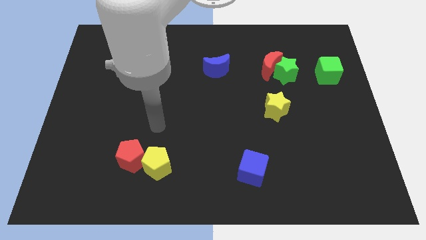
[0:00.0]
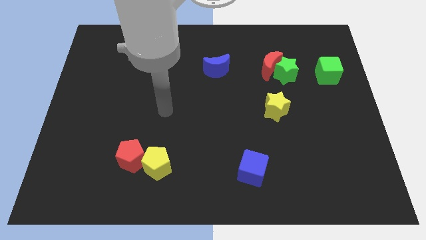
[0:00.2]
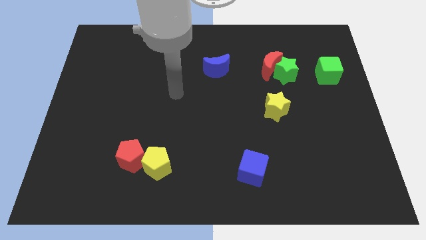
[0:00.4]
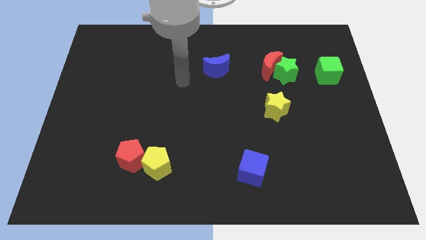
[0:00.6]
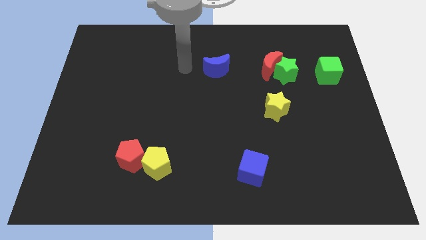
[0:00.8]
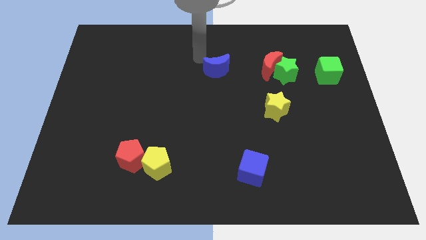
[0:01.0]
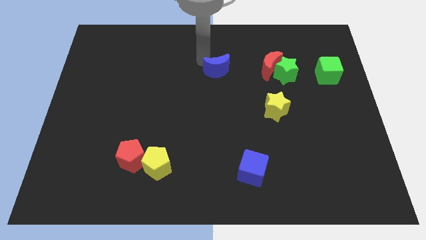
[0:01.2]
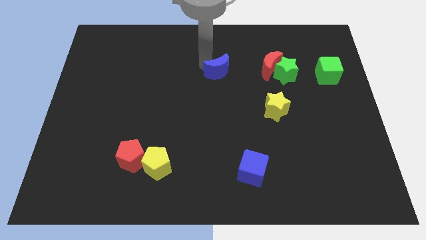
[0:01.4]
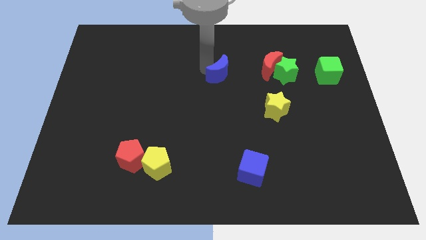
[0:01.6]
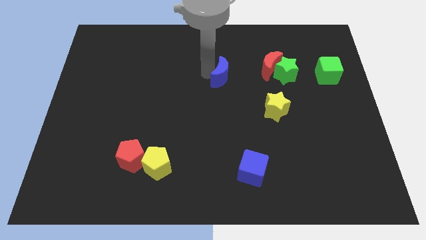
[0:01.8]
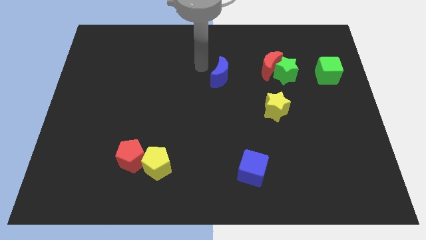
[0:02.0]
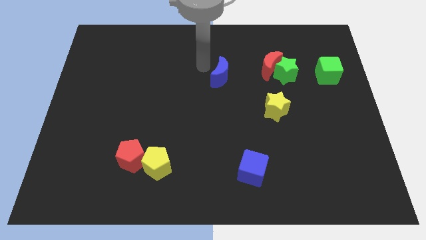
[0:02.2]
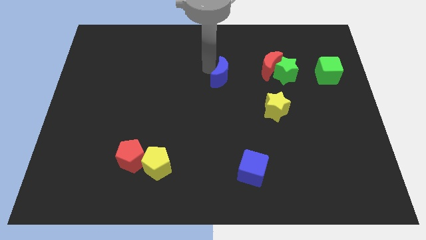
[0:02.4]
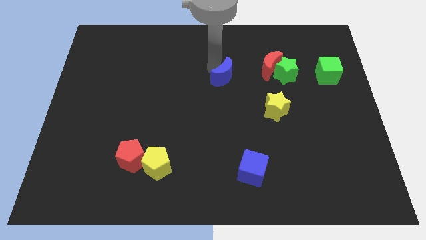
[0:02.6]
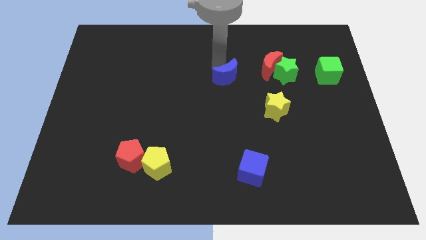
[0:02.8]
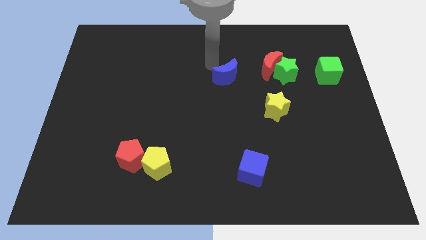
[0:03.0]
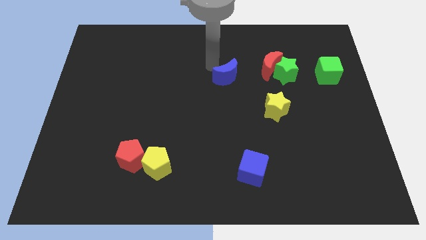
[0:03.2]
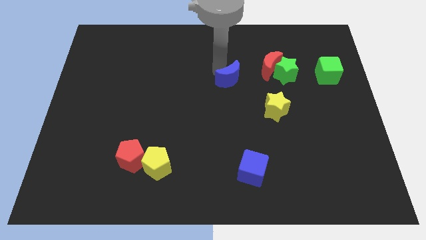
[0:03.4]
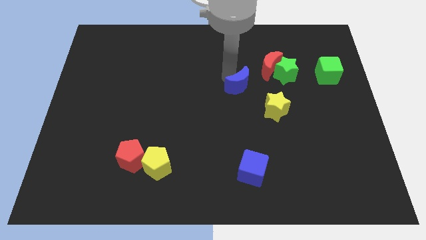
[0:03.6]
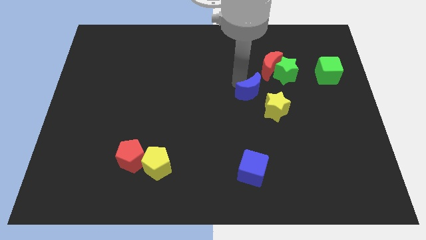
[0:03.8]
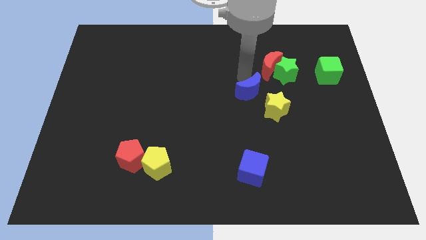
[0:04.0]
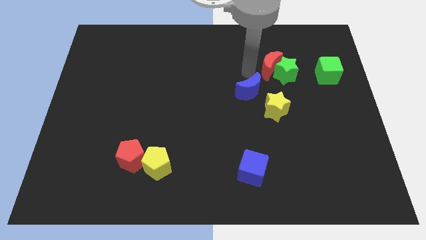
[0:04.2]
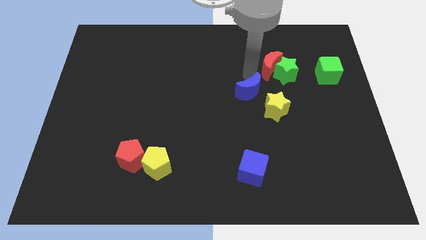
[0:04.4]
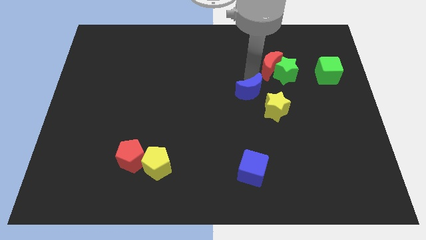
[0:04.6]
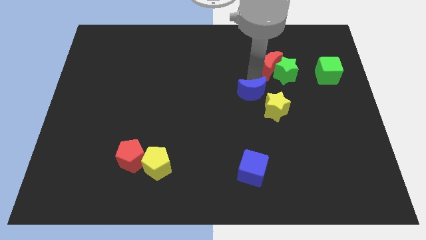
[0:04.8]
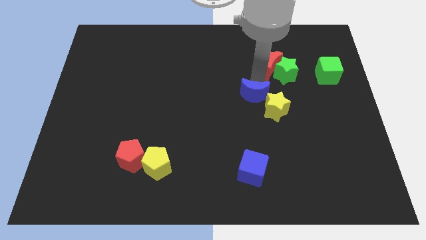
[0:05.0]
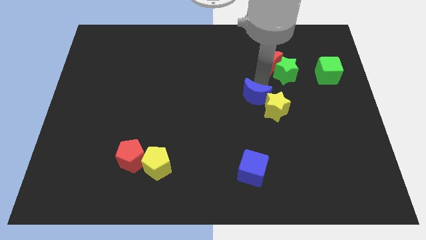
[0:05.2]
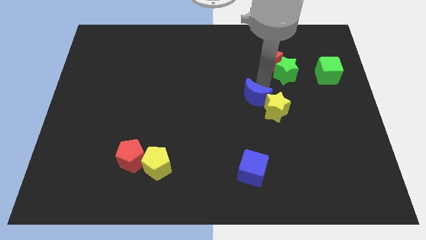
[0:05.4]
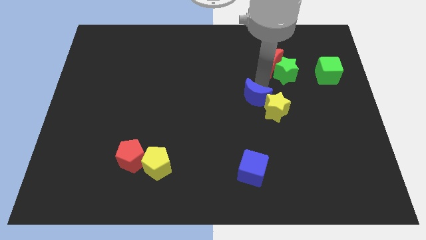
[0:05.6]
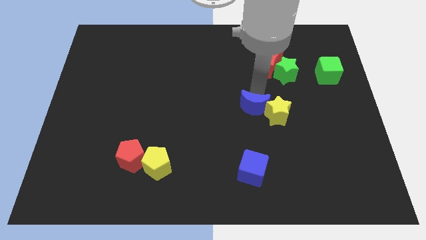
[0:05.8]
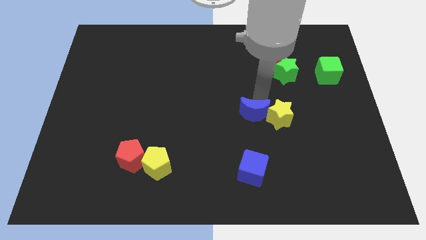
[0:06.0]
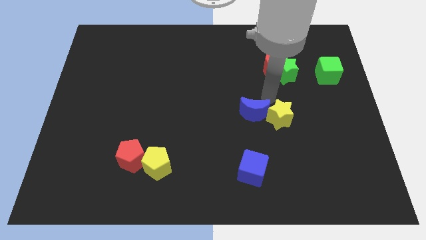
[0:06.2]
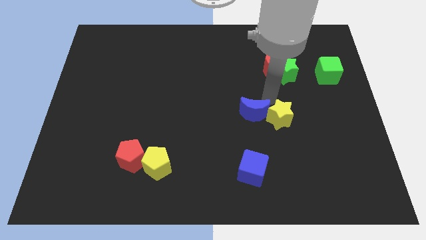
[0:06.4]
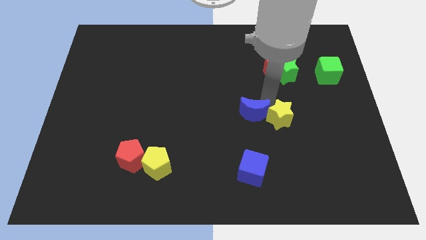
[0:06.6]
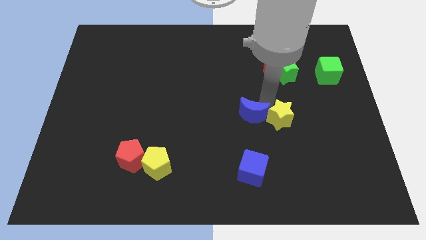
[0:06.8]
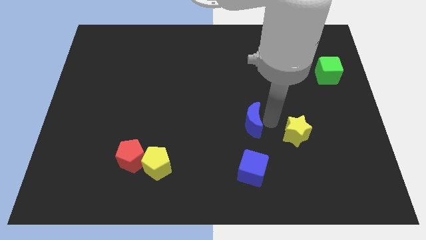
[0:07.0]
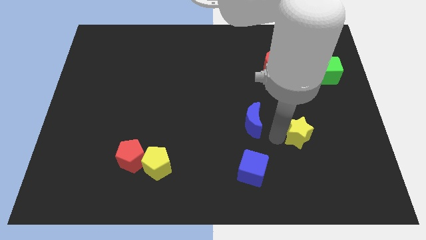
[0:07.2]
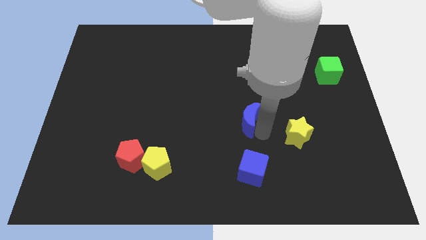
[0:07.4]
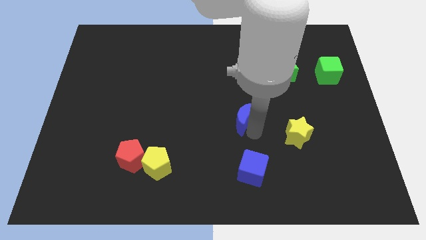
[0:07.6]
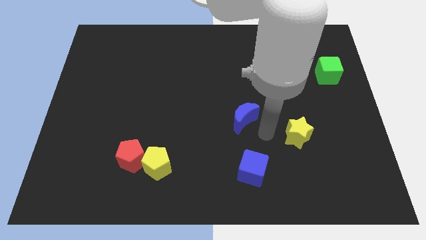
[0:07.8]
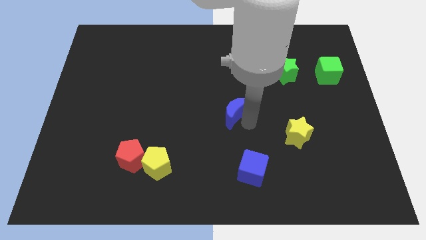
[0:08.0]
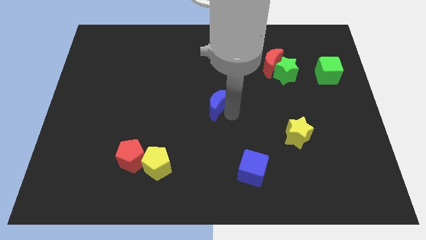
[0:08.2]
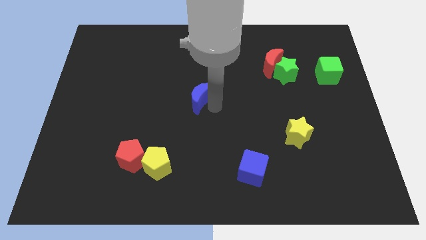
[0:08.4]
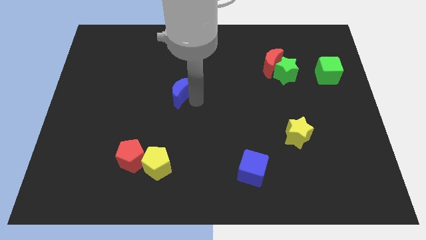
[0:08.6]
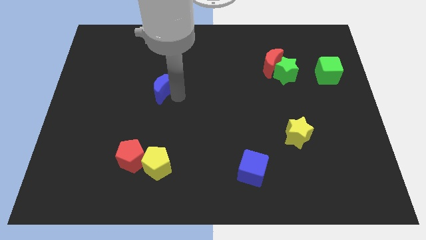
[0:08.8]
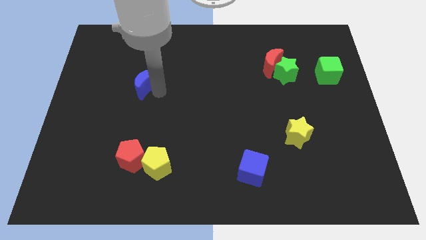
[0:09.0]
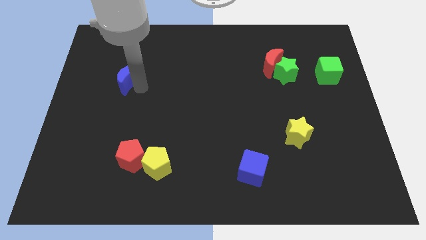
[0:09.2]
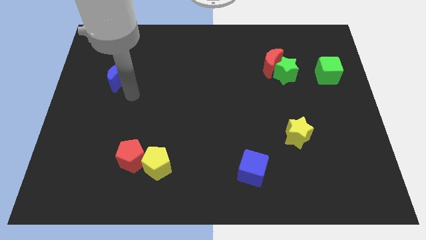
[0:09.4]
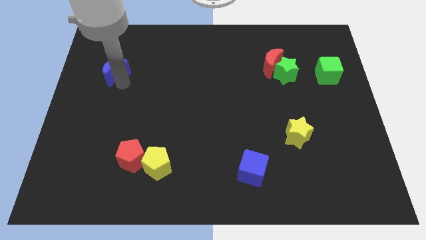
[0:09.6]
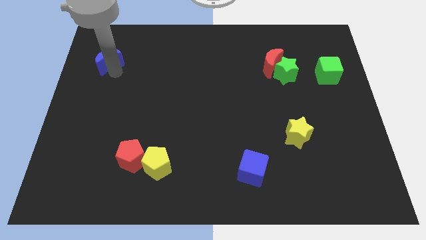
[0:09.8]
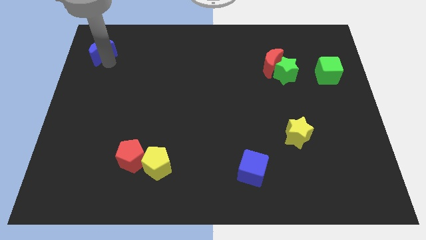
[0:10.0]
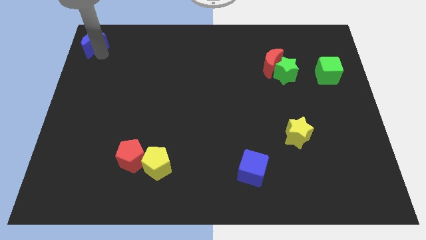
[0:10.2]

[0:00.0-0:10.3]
put the blue moon to the top left corner

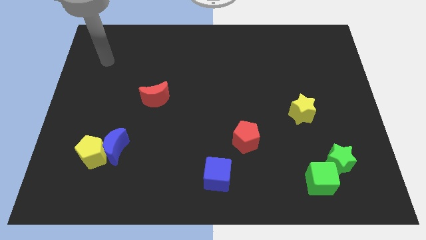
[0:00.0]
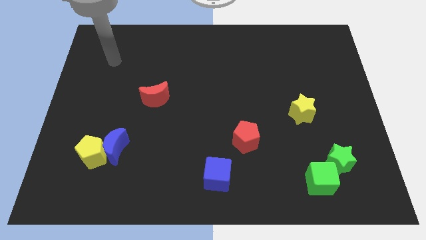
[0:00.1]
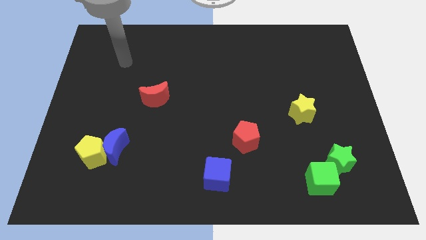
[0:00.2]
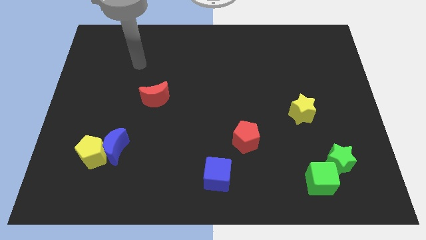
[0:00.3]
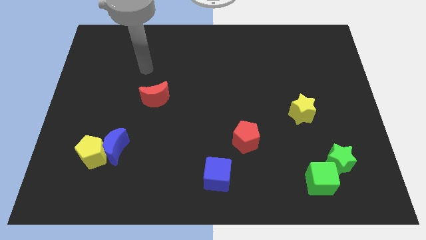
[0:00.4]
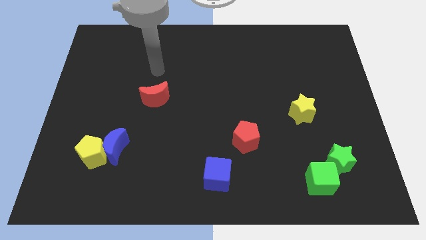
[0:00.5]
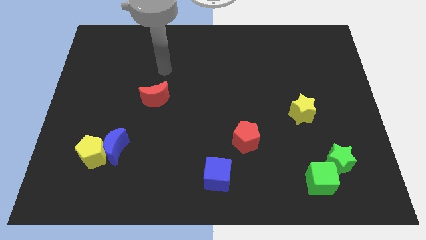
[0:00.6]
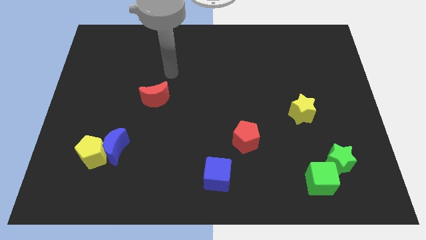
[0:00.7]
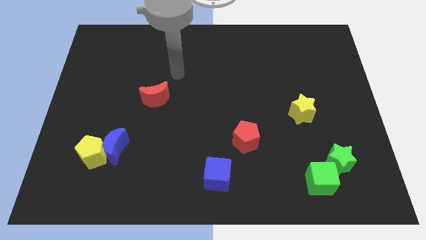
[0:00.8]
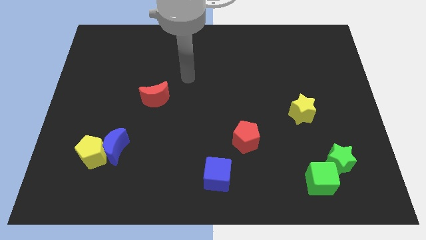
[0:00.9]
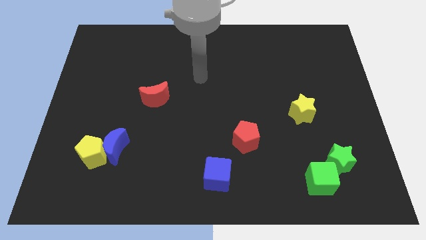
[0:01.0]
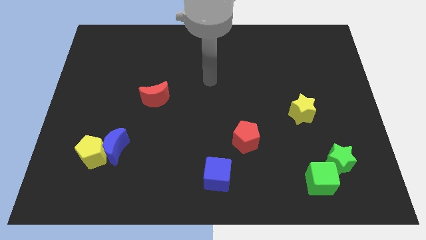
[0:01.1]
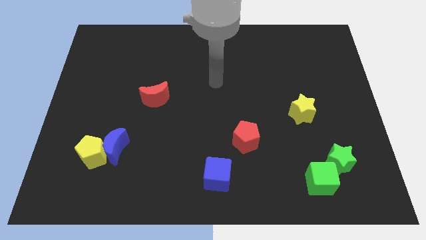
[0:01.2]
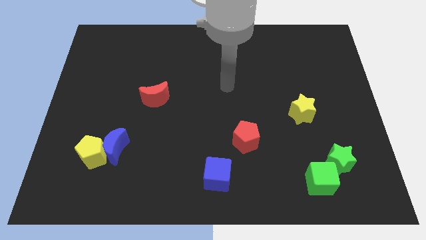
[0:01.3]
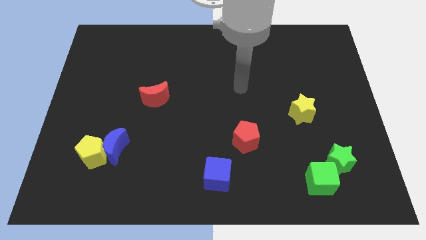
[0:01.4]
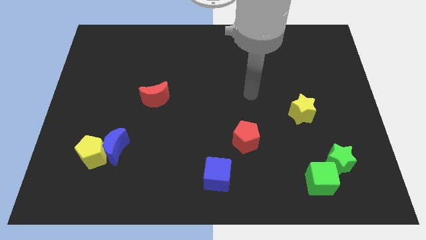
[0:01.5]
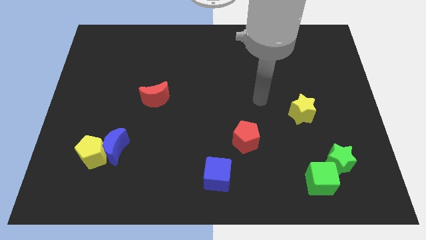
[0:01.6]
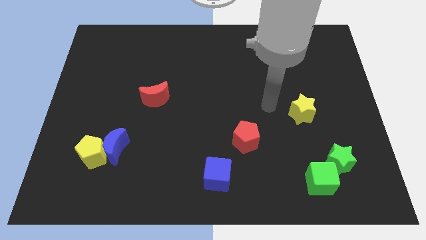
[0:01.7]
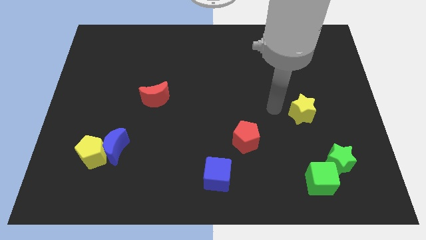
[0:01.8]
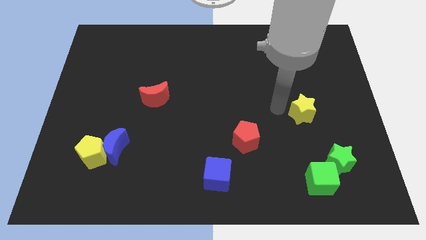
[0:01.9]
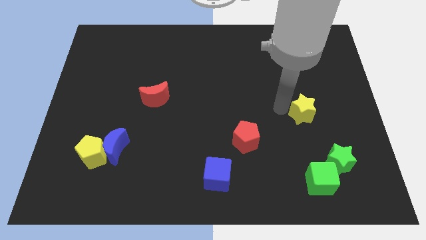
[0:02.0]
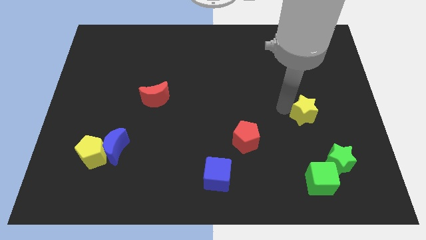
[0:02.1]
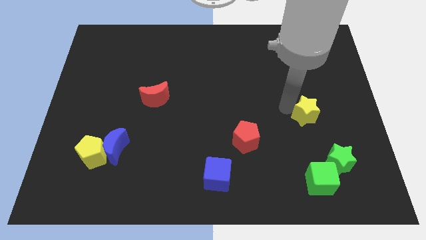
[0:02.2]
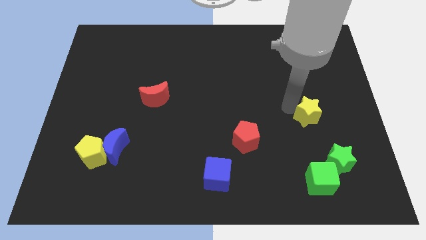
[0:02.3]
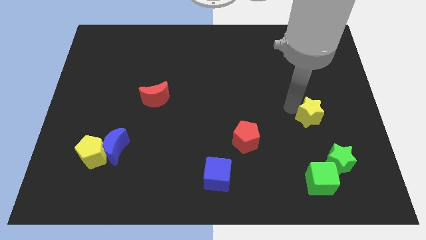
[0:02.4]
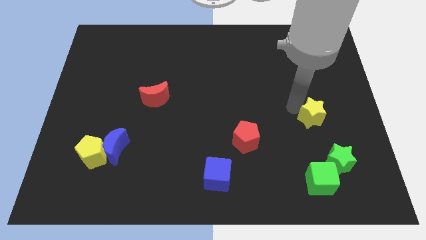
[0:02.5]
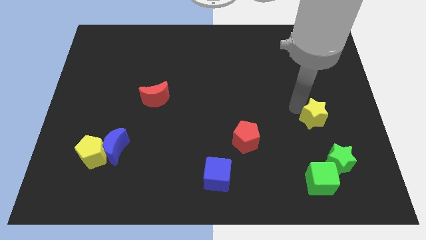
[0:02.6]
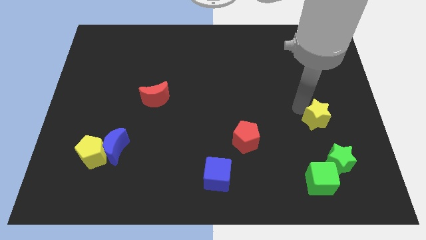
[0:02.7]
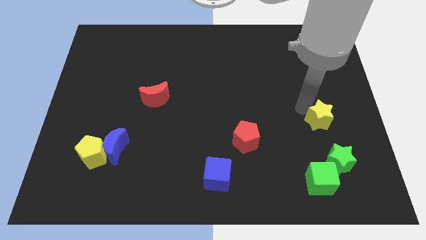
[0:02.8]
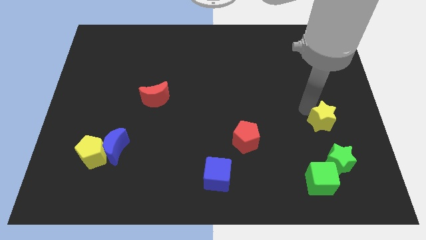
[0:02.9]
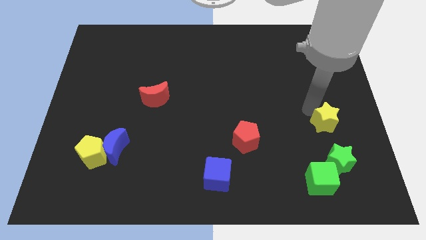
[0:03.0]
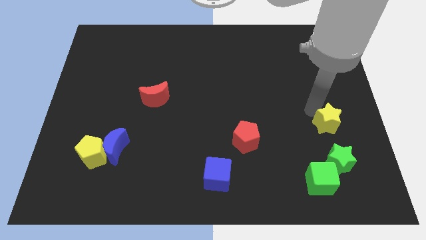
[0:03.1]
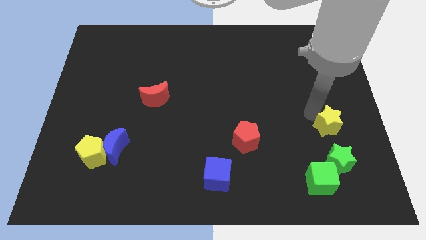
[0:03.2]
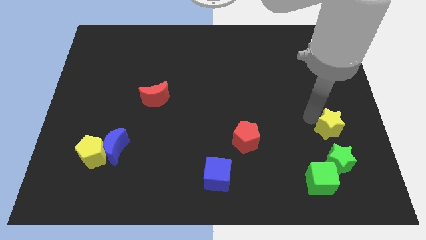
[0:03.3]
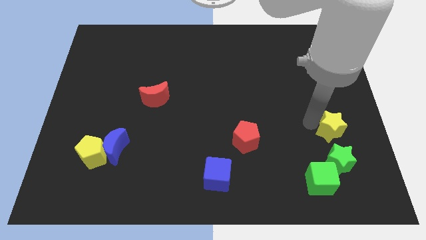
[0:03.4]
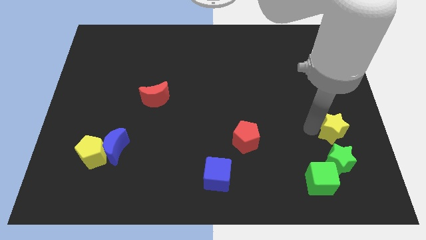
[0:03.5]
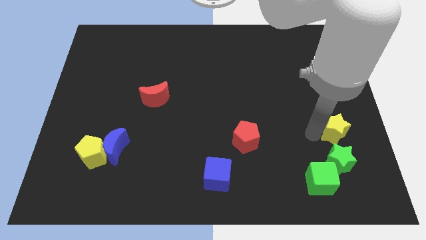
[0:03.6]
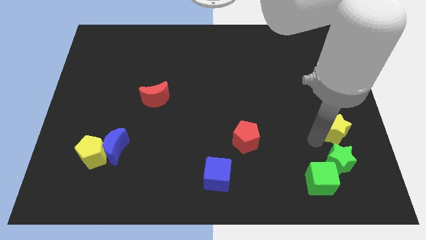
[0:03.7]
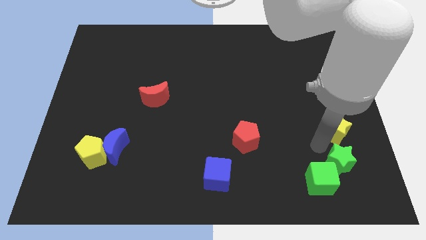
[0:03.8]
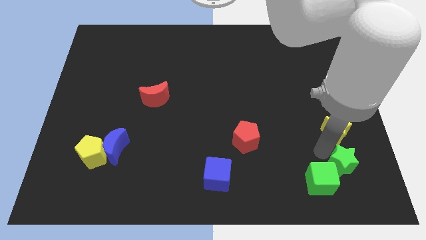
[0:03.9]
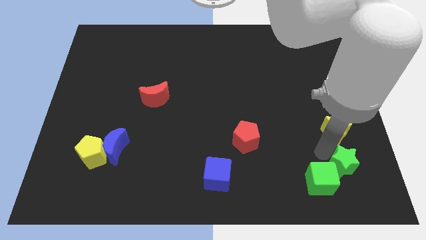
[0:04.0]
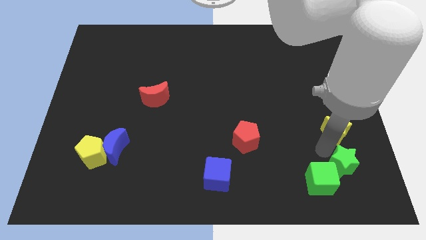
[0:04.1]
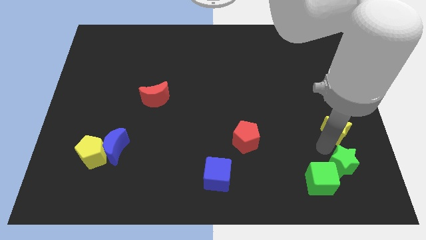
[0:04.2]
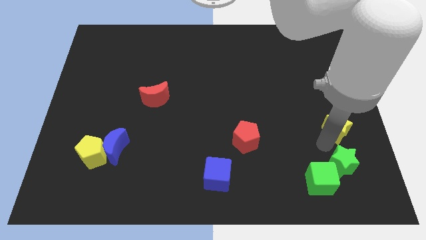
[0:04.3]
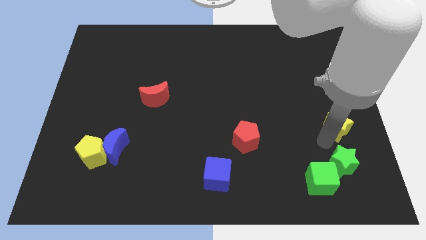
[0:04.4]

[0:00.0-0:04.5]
slide the yellow star to the center right
